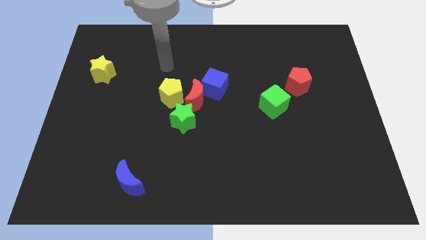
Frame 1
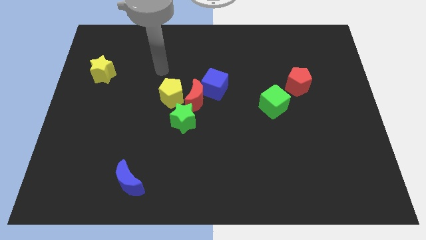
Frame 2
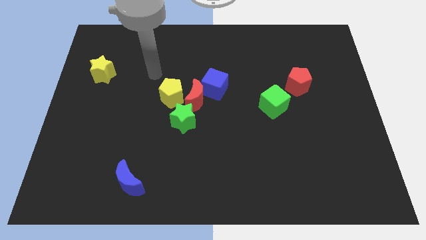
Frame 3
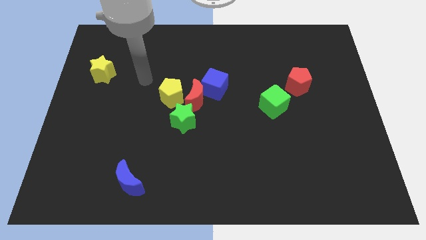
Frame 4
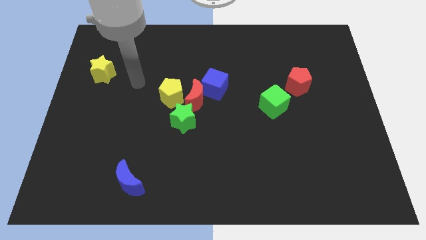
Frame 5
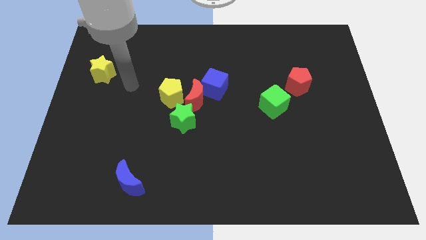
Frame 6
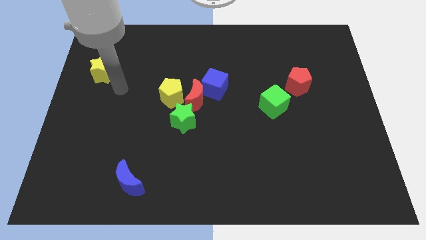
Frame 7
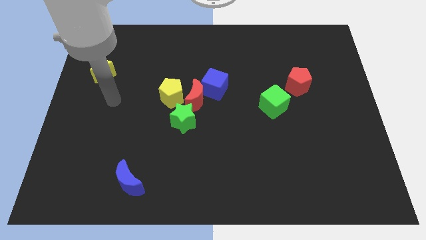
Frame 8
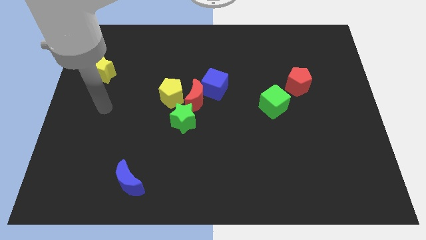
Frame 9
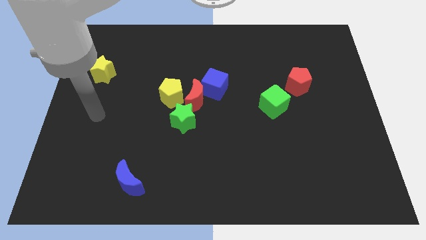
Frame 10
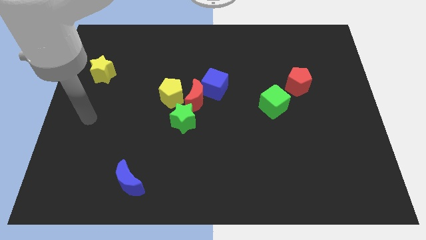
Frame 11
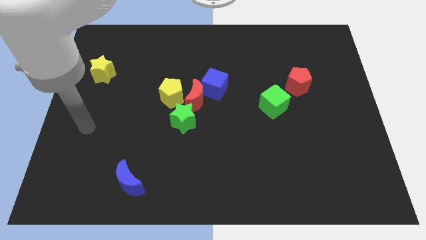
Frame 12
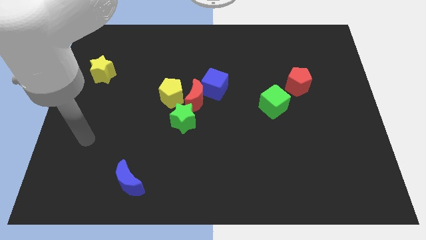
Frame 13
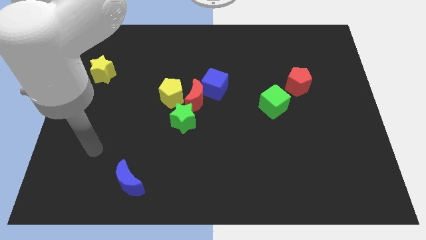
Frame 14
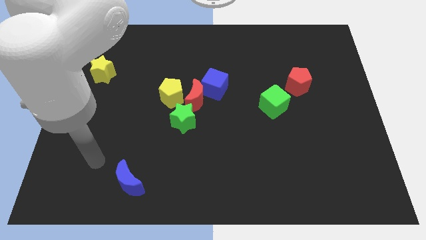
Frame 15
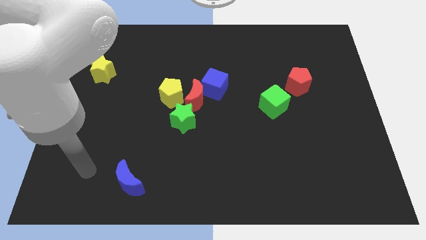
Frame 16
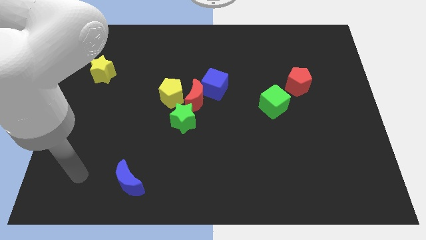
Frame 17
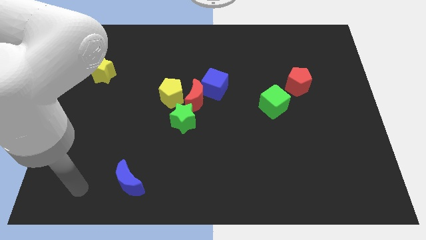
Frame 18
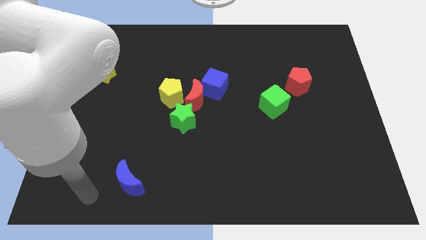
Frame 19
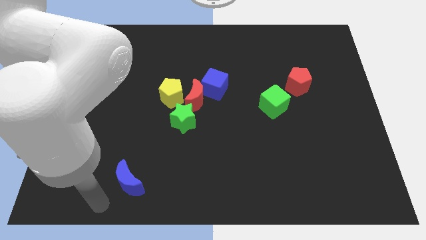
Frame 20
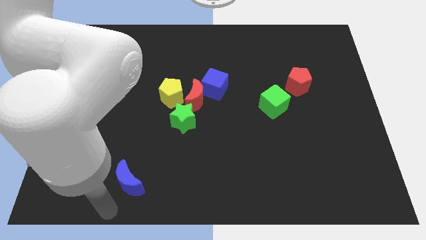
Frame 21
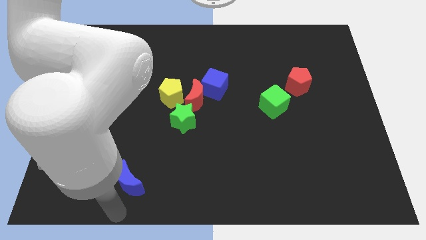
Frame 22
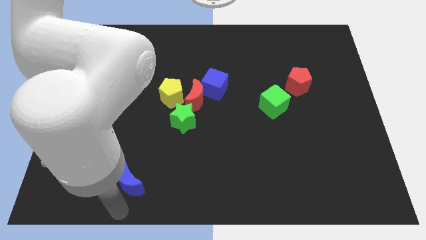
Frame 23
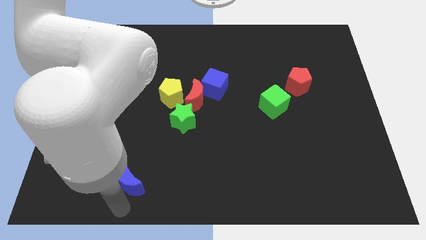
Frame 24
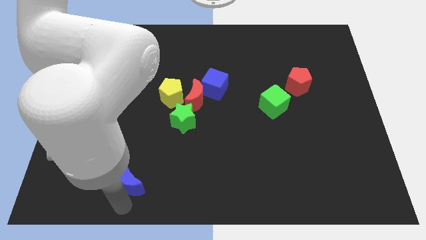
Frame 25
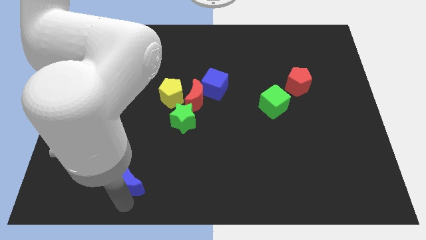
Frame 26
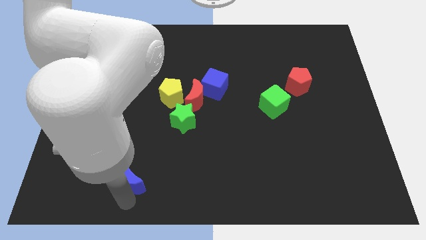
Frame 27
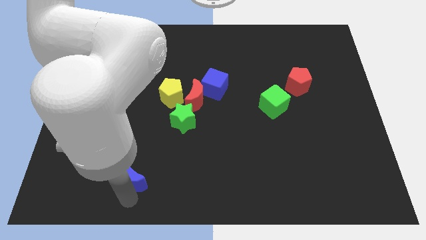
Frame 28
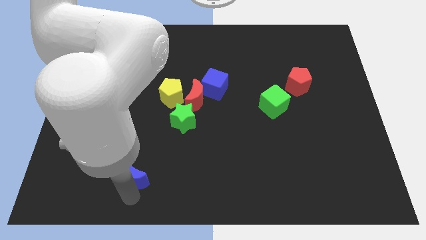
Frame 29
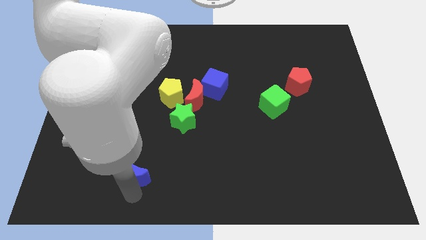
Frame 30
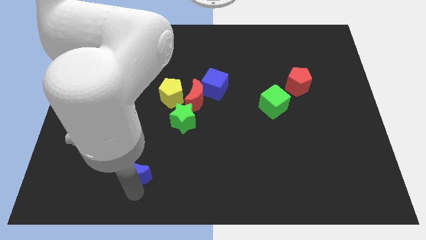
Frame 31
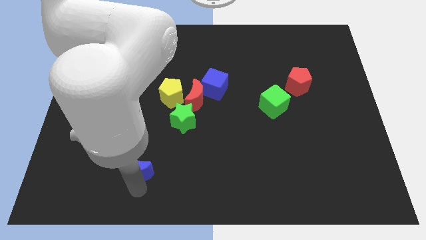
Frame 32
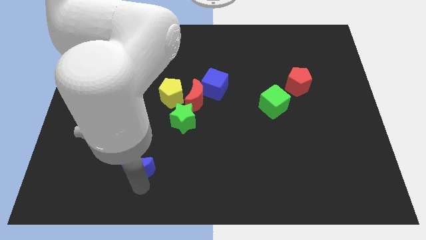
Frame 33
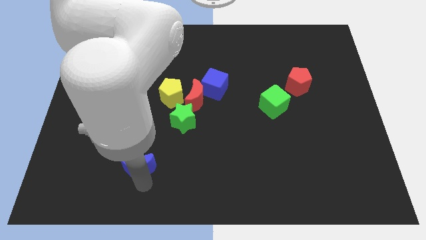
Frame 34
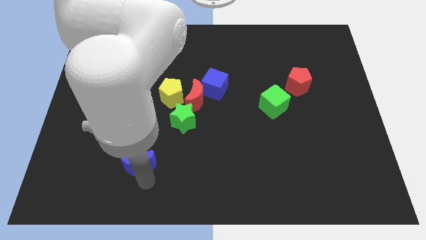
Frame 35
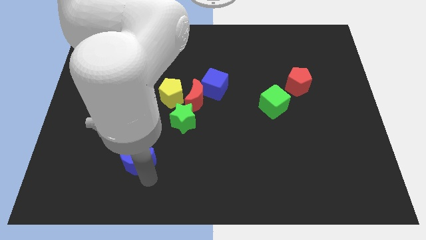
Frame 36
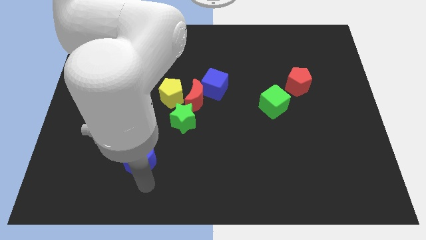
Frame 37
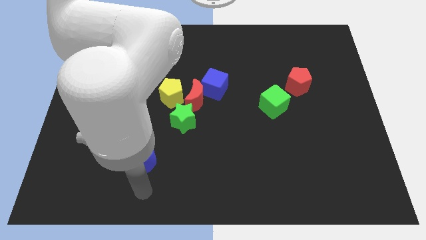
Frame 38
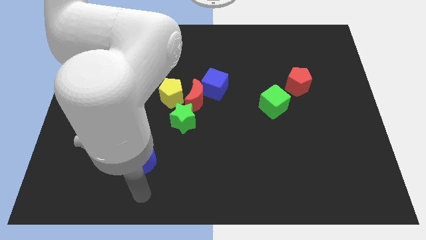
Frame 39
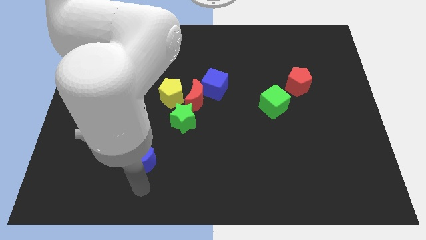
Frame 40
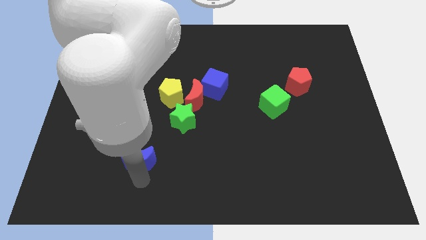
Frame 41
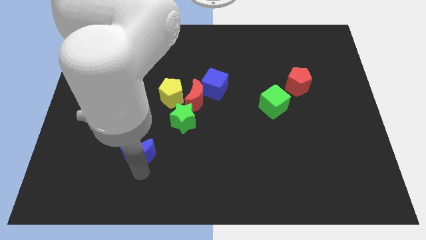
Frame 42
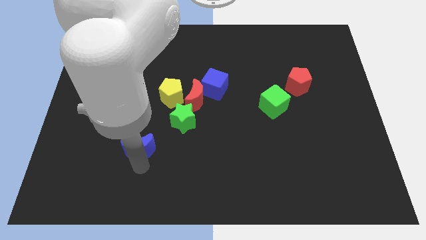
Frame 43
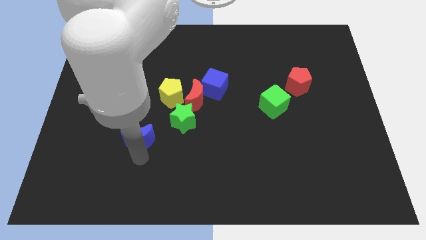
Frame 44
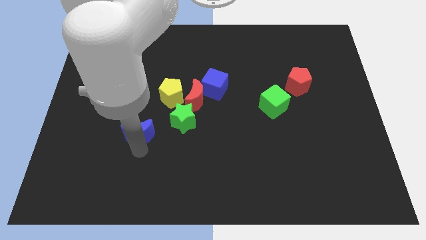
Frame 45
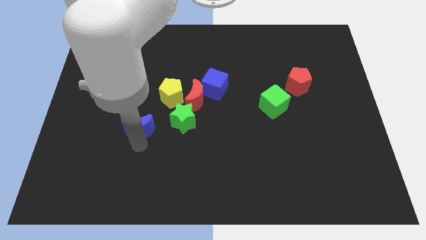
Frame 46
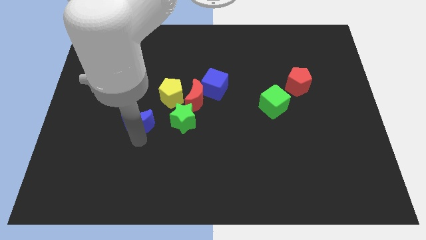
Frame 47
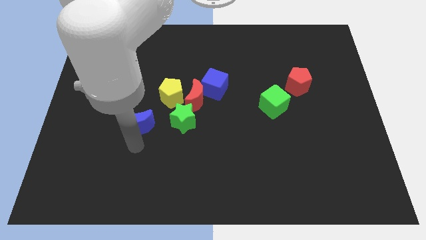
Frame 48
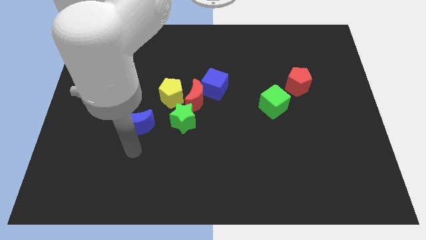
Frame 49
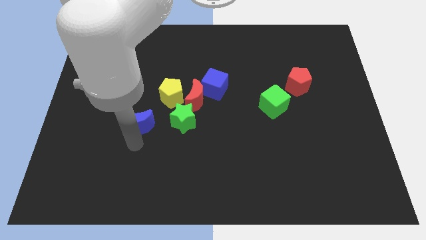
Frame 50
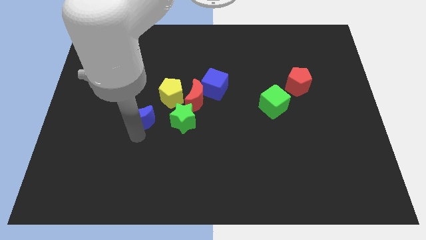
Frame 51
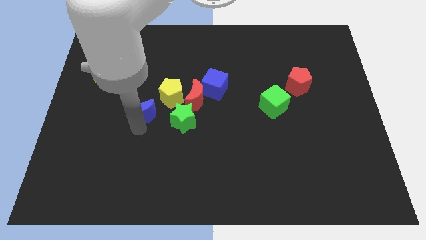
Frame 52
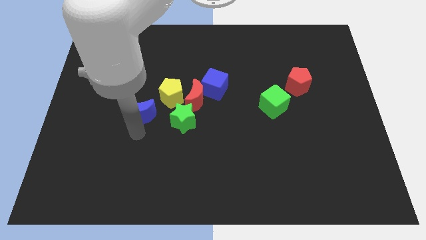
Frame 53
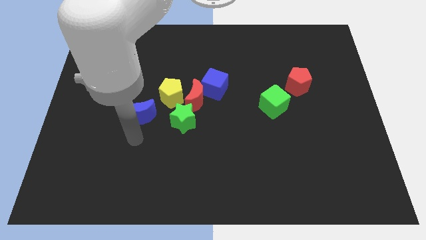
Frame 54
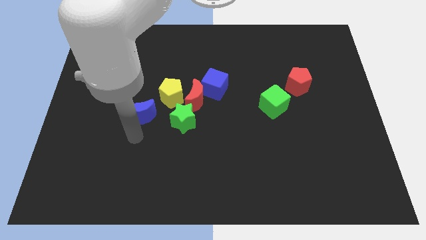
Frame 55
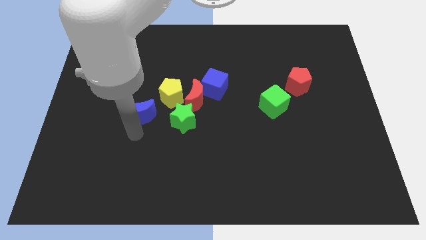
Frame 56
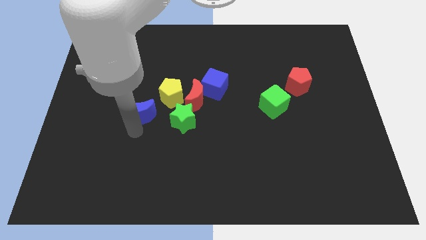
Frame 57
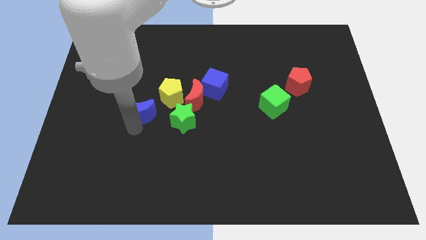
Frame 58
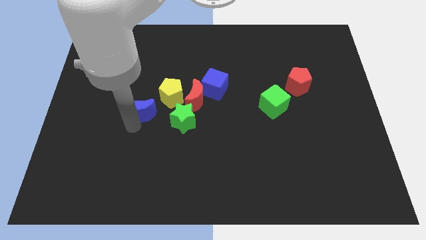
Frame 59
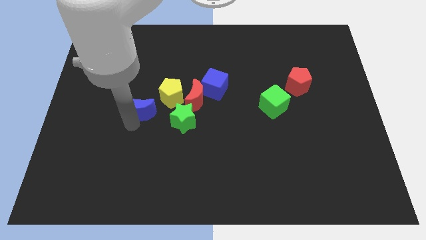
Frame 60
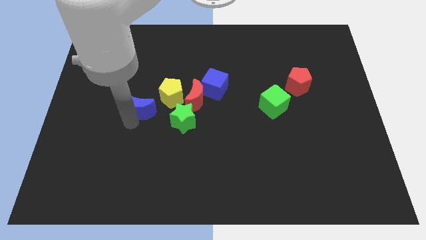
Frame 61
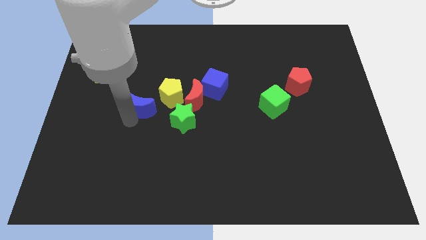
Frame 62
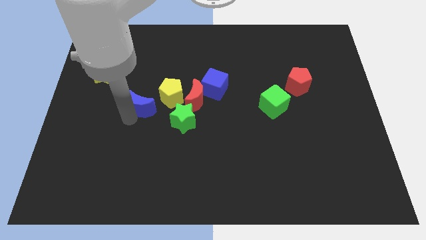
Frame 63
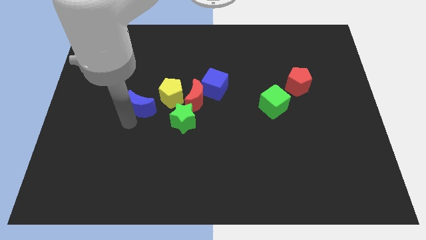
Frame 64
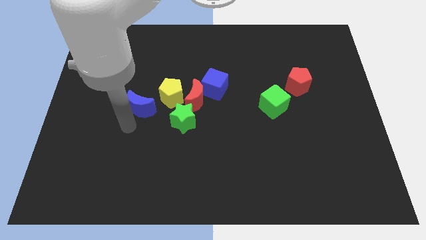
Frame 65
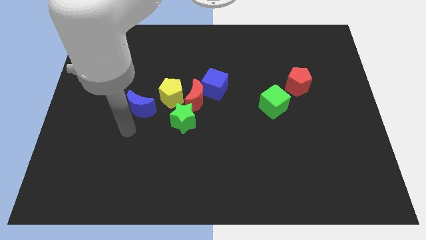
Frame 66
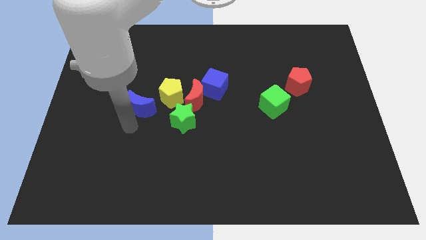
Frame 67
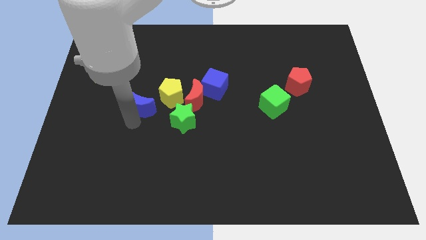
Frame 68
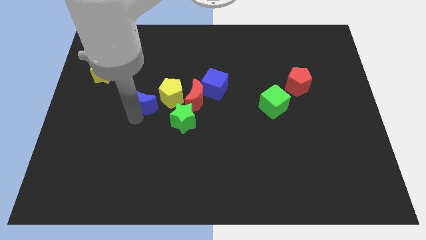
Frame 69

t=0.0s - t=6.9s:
push the blue moon up

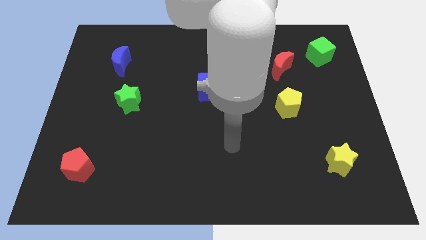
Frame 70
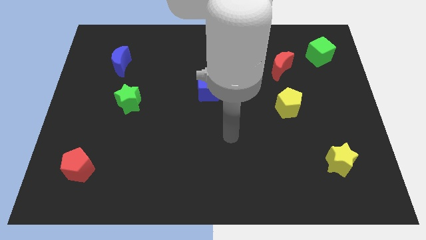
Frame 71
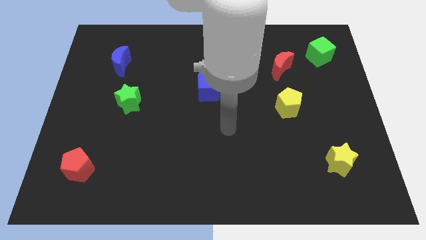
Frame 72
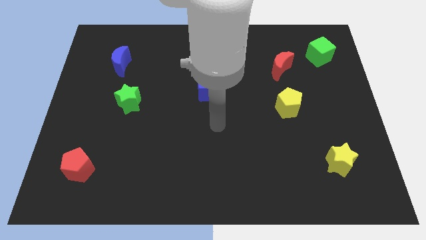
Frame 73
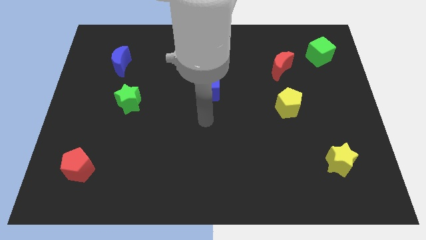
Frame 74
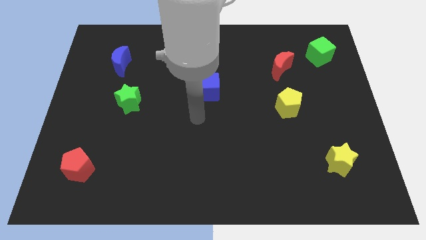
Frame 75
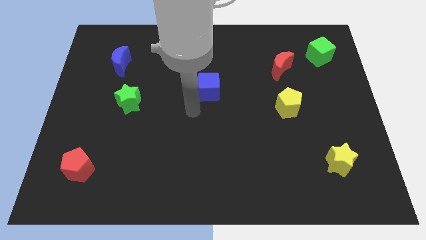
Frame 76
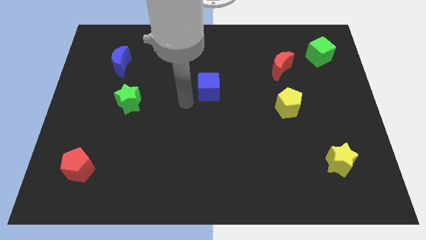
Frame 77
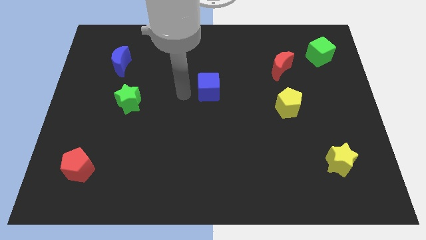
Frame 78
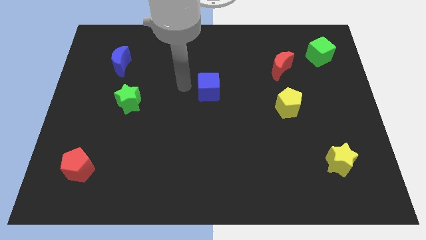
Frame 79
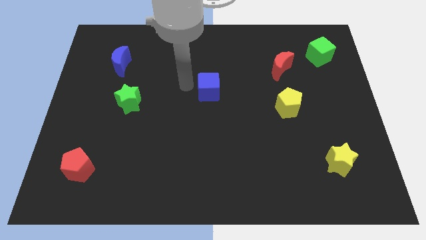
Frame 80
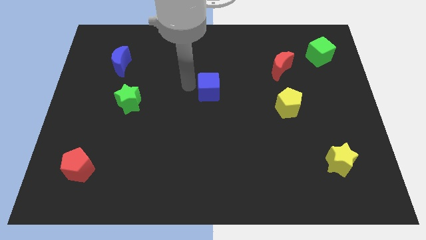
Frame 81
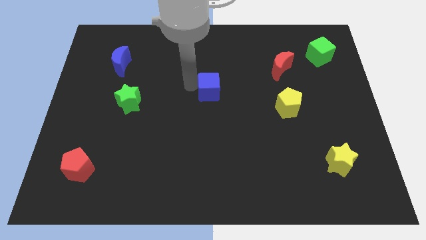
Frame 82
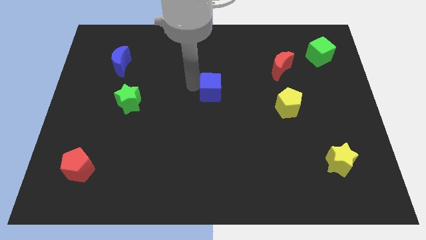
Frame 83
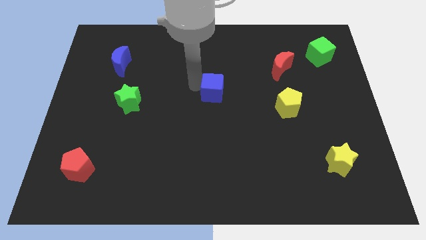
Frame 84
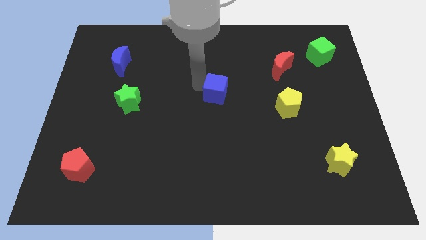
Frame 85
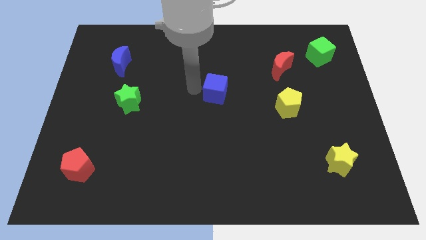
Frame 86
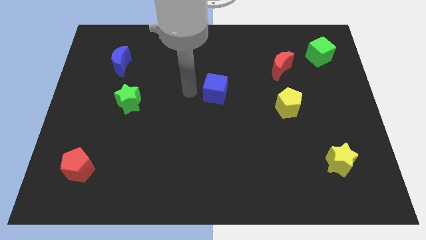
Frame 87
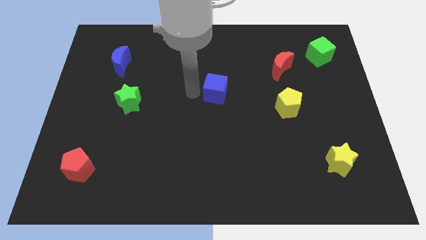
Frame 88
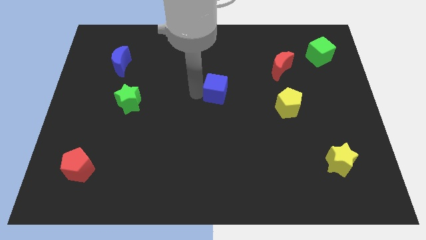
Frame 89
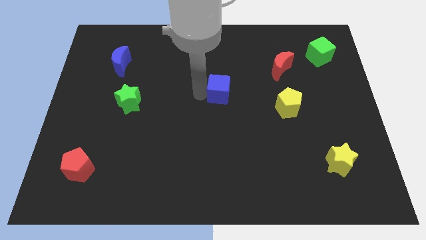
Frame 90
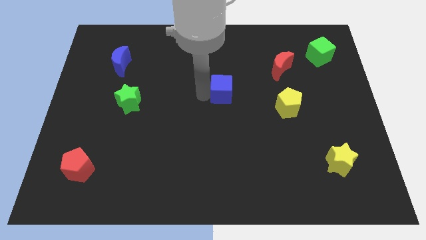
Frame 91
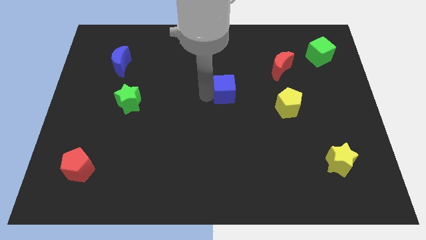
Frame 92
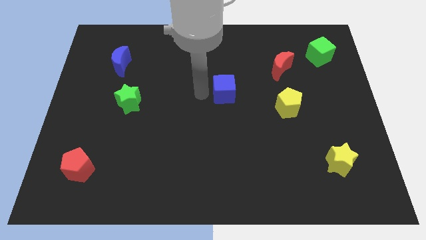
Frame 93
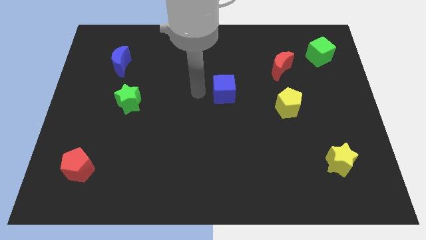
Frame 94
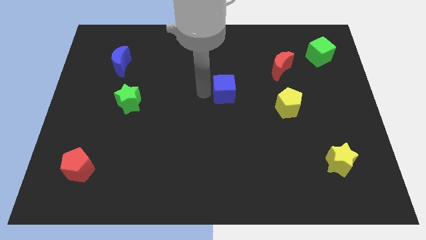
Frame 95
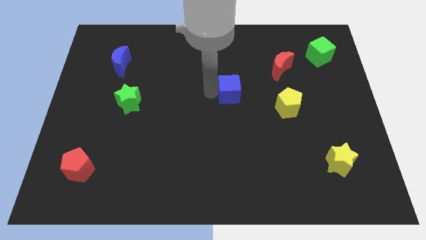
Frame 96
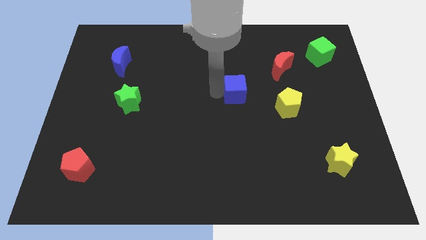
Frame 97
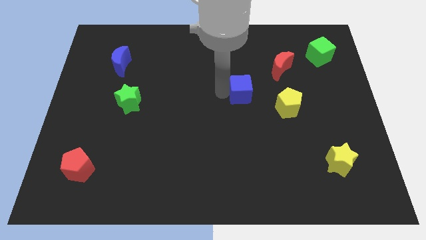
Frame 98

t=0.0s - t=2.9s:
push the blue cube to the right slightly
